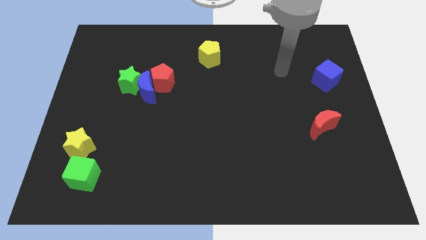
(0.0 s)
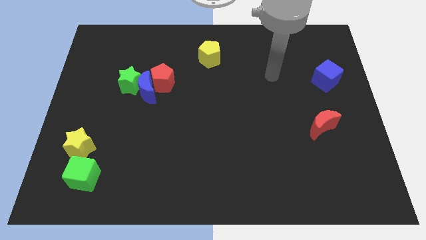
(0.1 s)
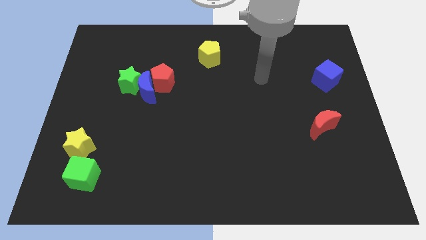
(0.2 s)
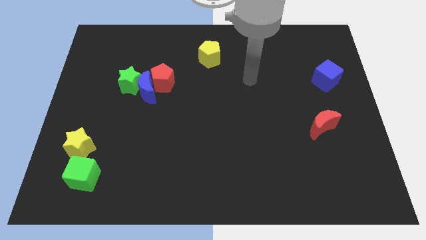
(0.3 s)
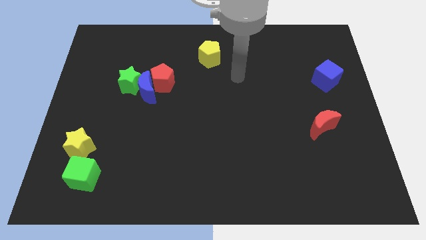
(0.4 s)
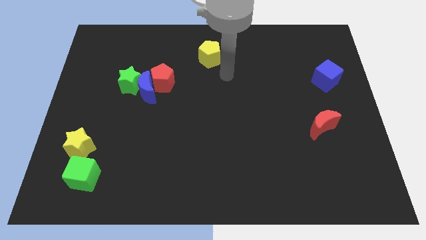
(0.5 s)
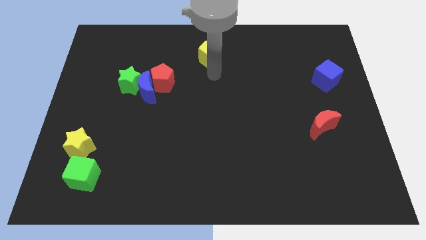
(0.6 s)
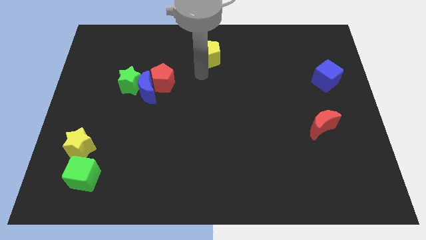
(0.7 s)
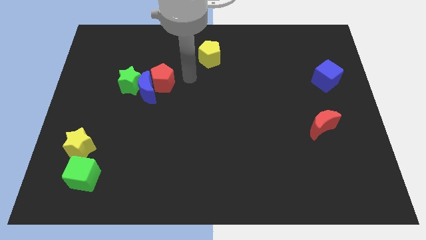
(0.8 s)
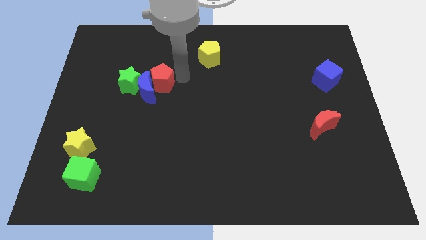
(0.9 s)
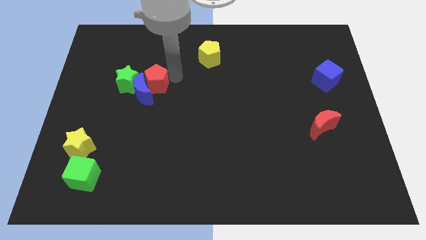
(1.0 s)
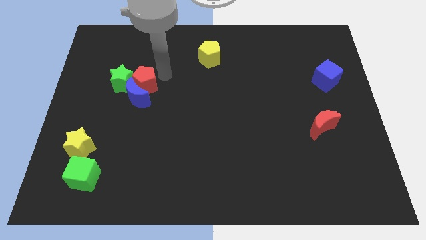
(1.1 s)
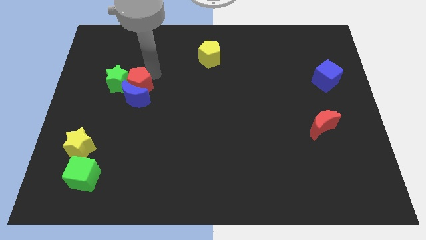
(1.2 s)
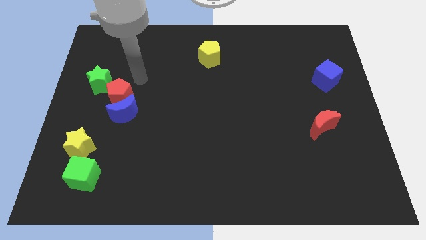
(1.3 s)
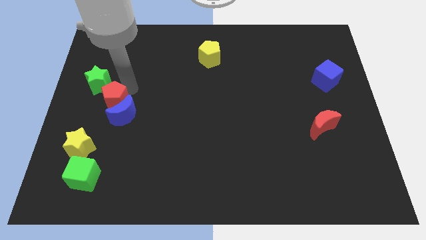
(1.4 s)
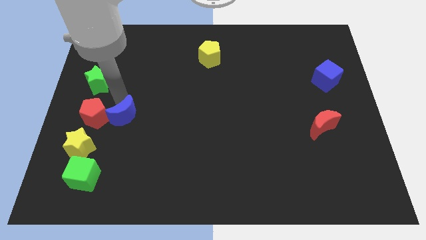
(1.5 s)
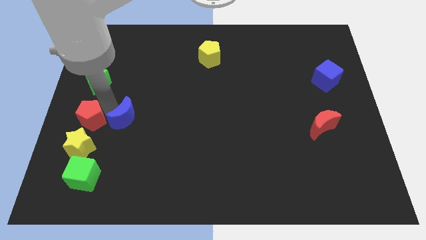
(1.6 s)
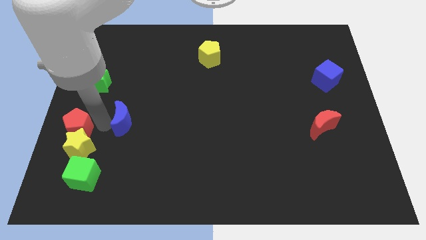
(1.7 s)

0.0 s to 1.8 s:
move the blue moon away from the red pentagon and green star

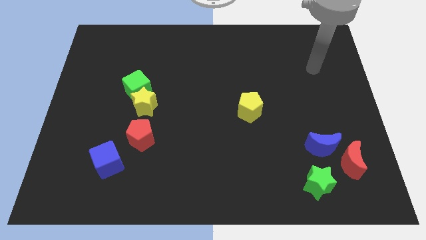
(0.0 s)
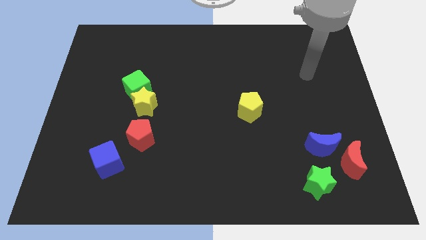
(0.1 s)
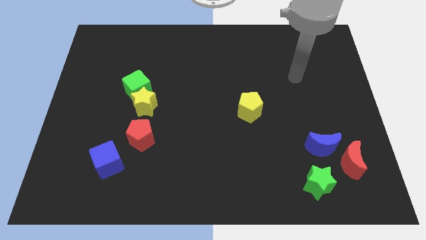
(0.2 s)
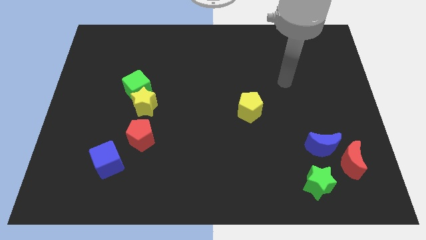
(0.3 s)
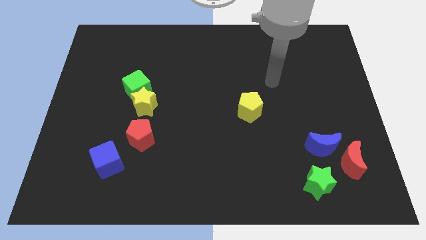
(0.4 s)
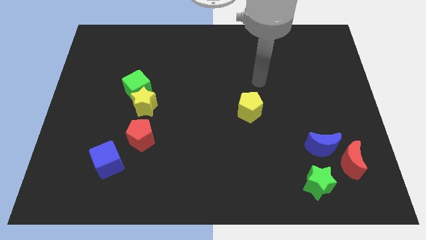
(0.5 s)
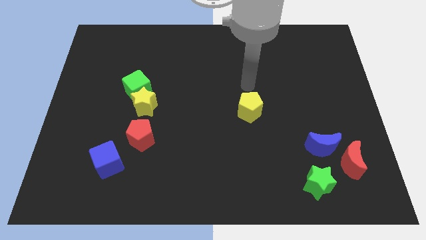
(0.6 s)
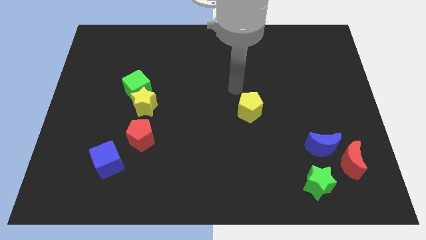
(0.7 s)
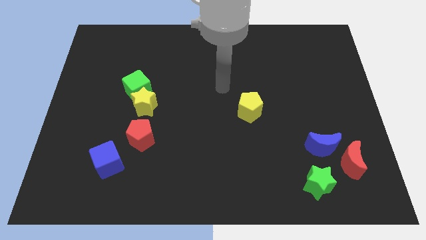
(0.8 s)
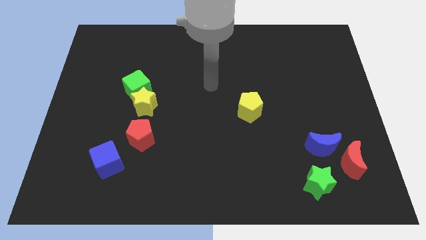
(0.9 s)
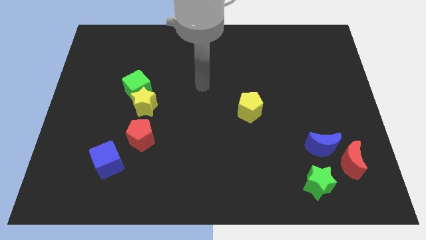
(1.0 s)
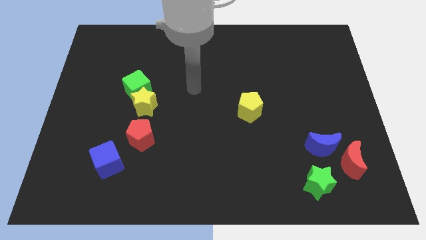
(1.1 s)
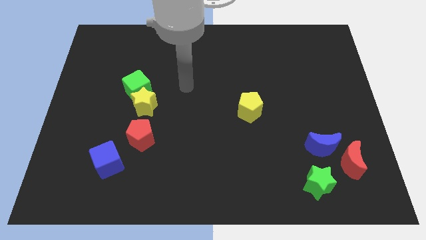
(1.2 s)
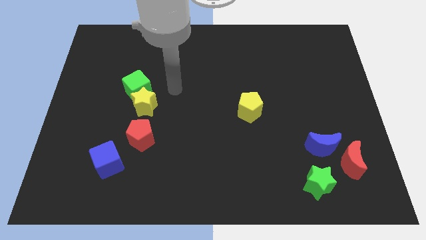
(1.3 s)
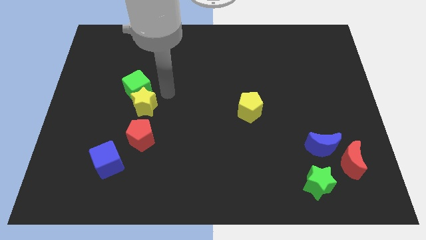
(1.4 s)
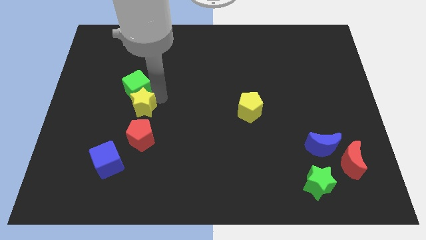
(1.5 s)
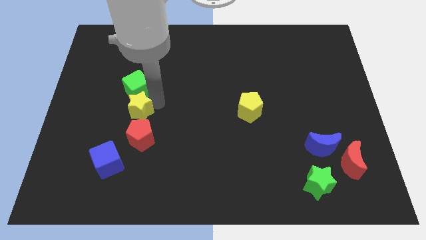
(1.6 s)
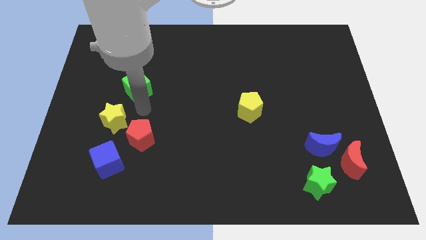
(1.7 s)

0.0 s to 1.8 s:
separate the green cube from the yellow star

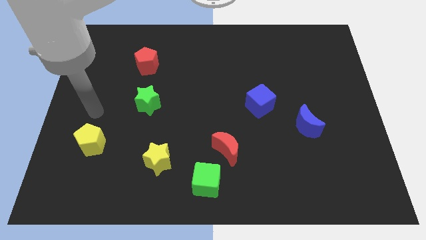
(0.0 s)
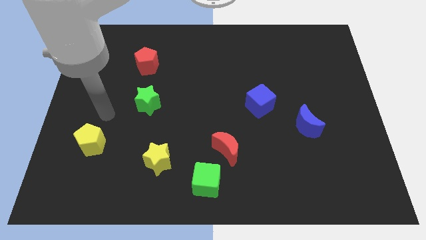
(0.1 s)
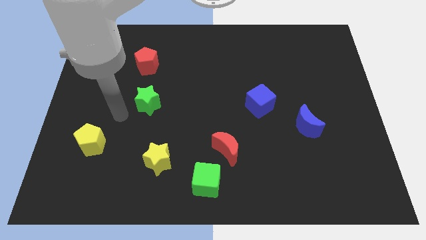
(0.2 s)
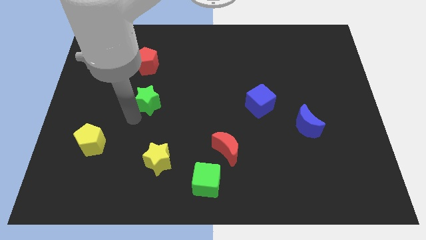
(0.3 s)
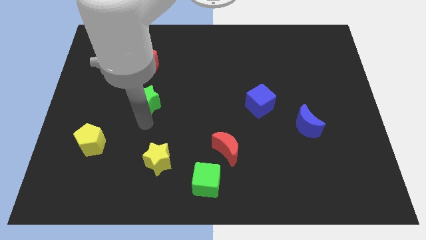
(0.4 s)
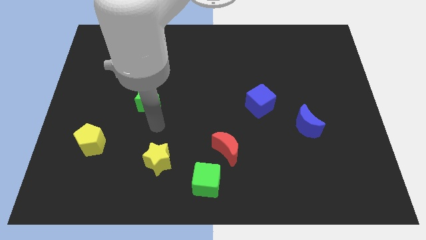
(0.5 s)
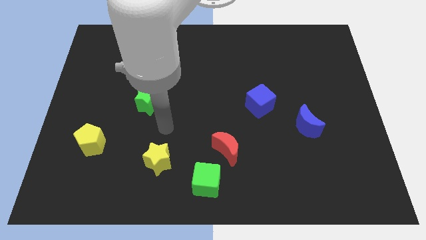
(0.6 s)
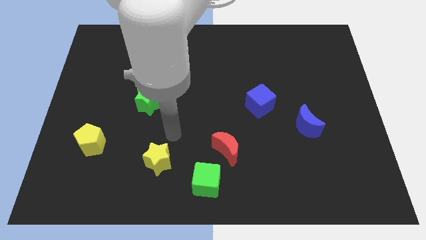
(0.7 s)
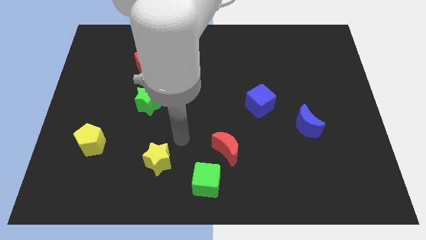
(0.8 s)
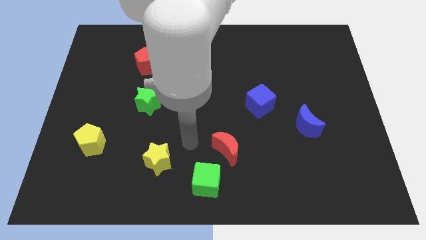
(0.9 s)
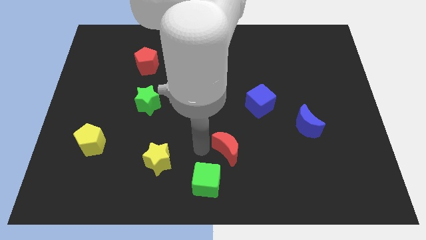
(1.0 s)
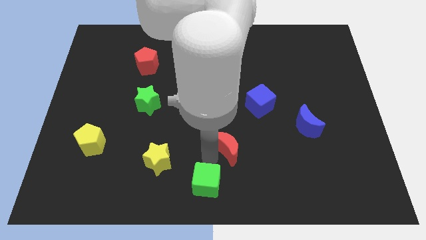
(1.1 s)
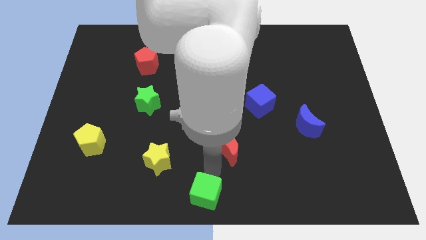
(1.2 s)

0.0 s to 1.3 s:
separate the red moon from the green cube

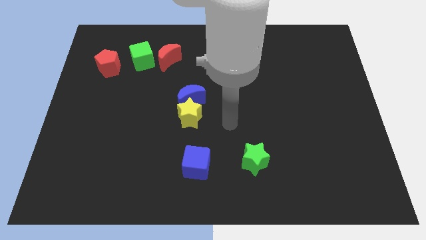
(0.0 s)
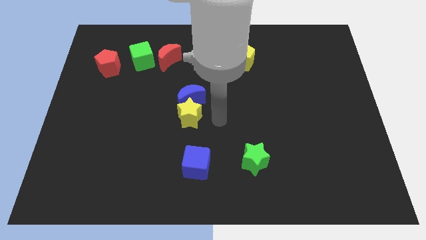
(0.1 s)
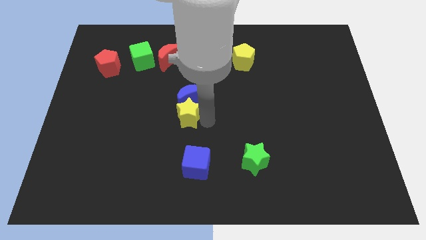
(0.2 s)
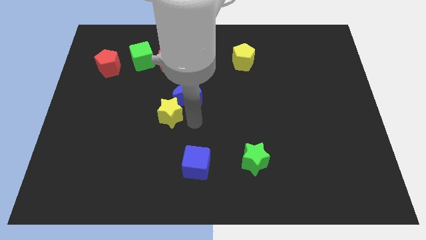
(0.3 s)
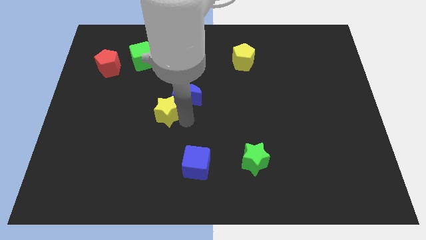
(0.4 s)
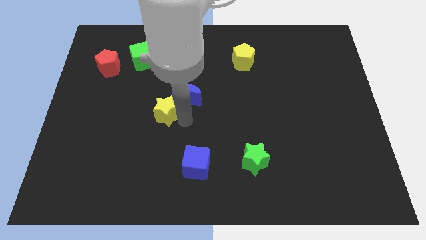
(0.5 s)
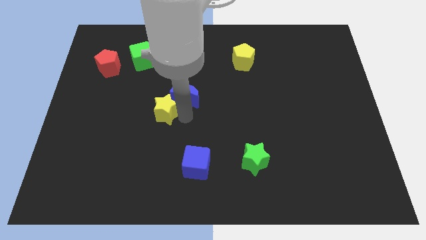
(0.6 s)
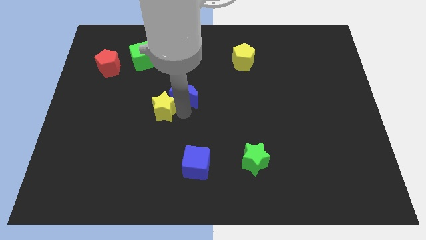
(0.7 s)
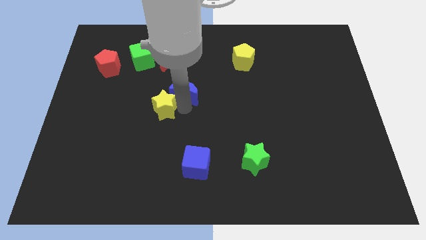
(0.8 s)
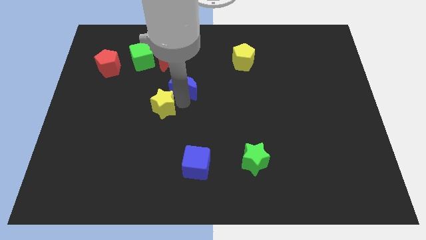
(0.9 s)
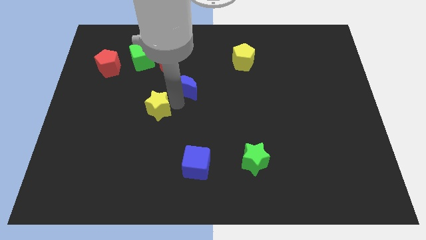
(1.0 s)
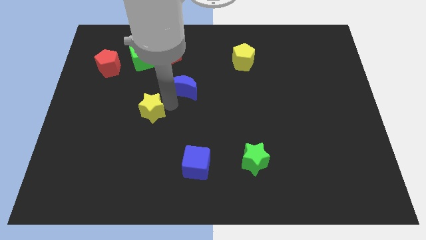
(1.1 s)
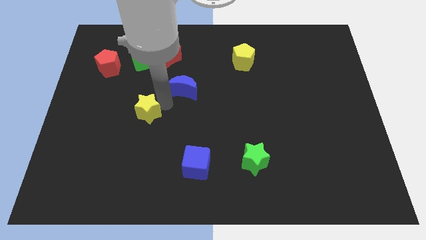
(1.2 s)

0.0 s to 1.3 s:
move the blue moon away from the yellow star

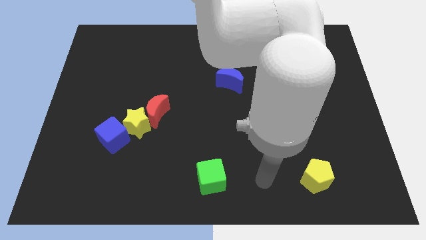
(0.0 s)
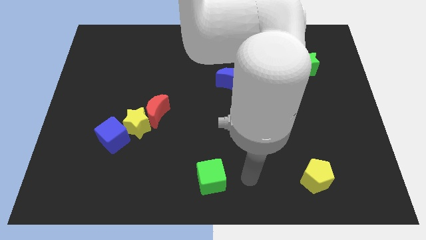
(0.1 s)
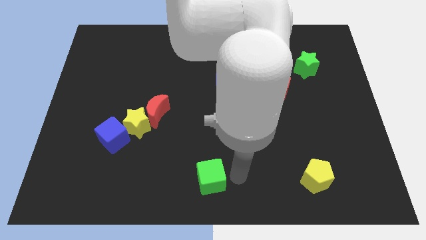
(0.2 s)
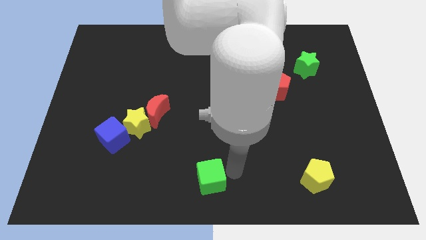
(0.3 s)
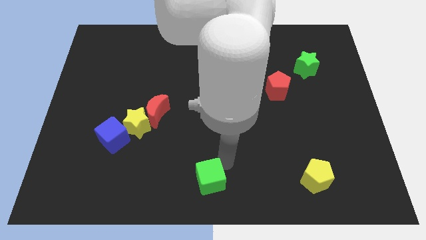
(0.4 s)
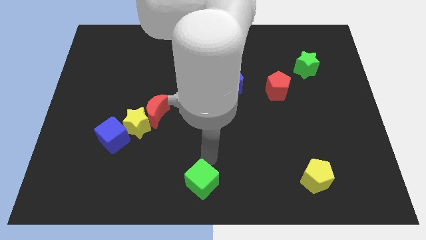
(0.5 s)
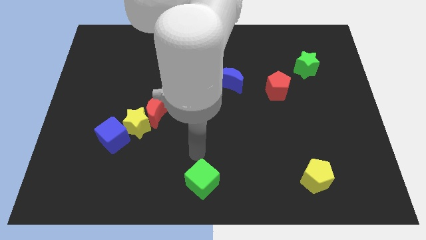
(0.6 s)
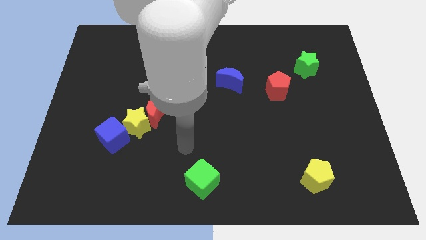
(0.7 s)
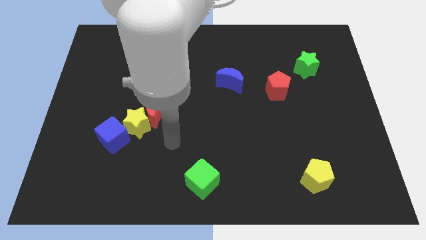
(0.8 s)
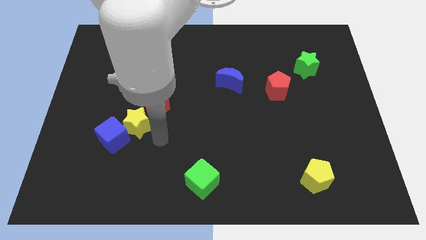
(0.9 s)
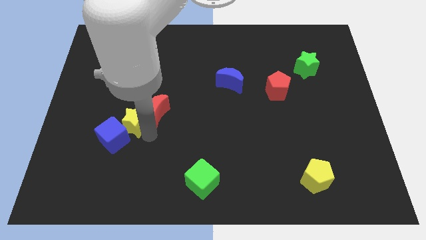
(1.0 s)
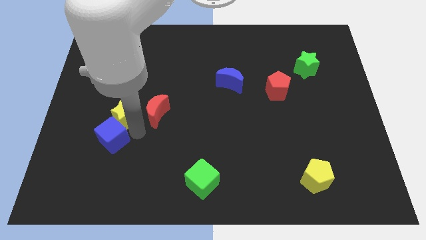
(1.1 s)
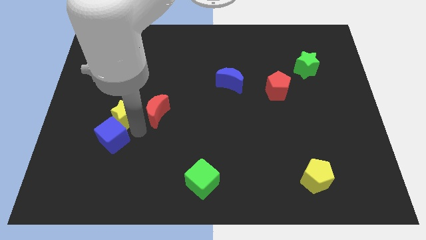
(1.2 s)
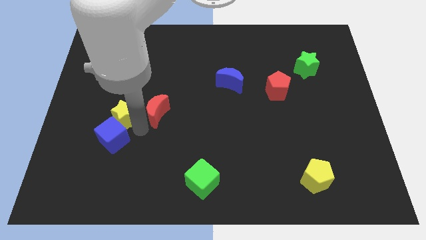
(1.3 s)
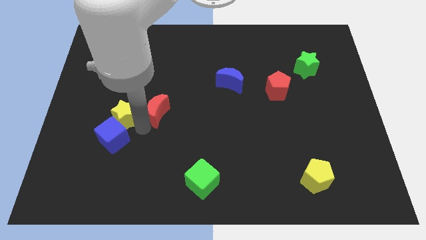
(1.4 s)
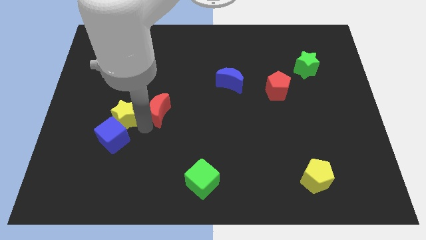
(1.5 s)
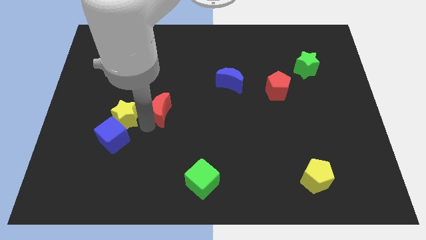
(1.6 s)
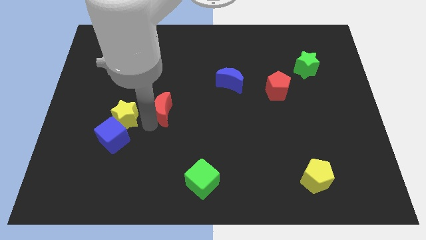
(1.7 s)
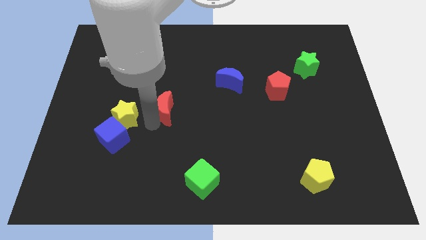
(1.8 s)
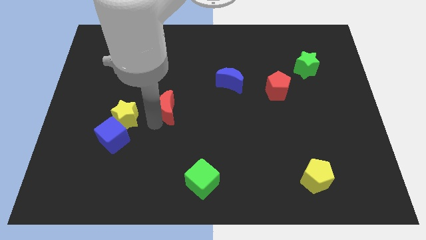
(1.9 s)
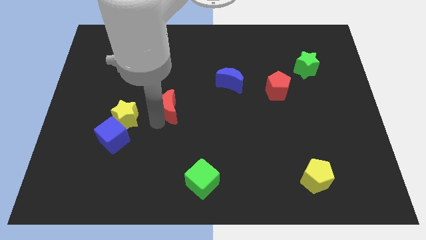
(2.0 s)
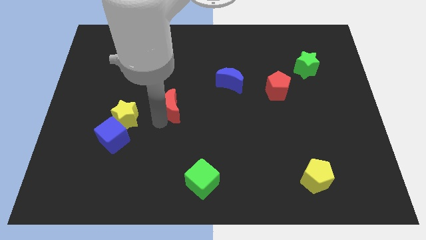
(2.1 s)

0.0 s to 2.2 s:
separate the red moon from the yellow star

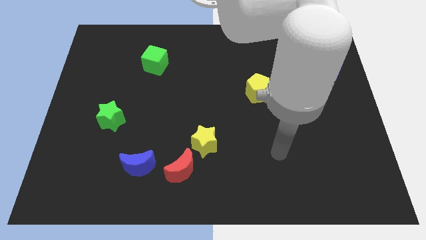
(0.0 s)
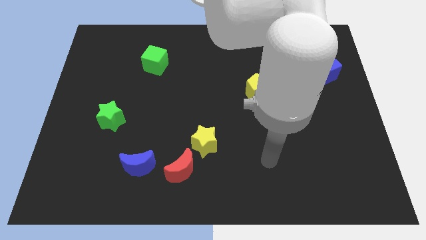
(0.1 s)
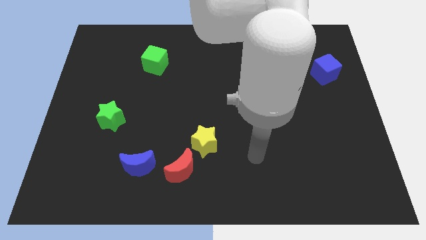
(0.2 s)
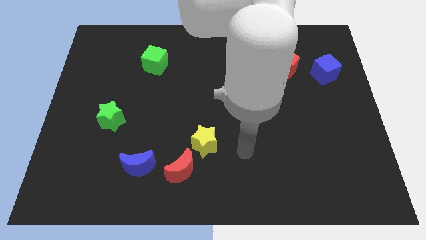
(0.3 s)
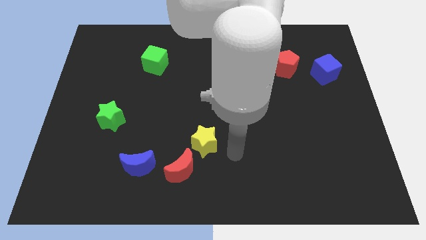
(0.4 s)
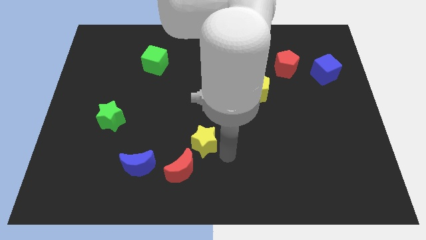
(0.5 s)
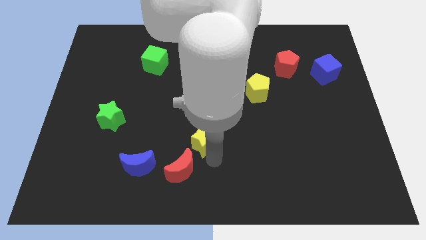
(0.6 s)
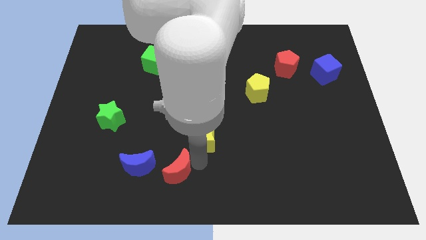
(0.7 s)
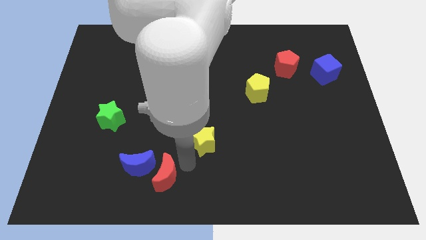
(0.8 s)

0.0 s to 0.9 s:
pull the yellow star apart from the red moon
